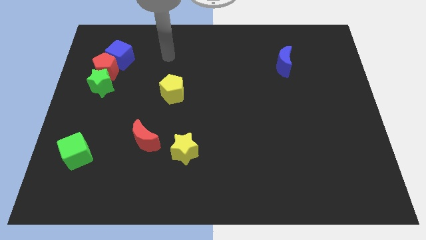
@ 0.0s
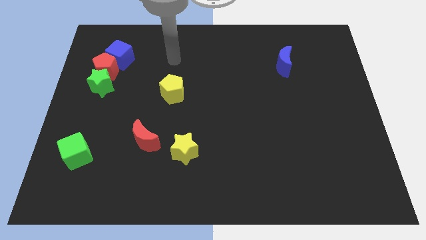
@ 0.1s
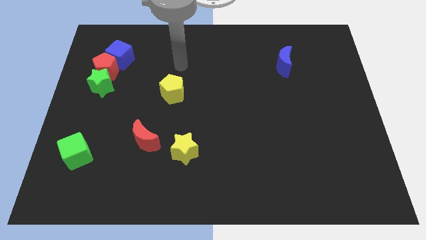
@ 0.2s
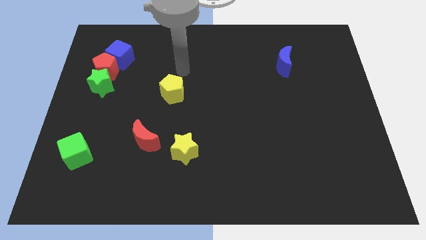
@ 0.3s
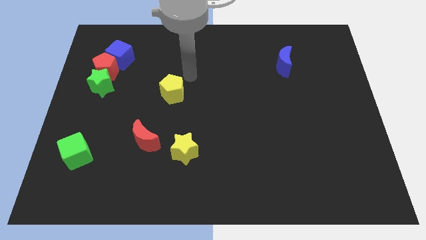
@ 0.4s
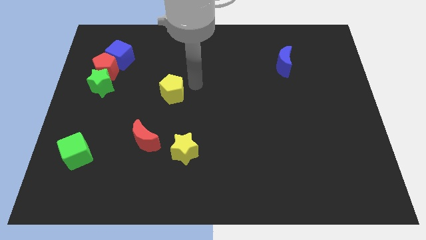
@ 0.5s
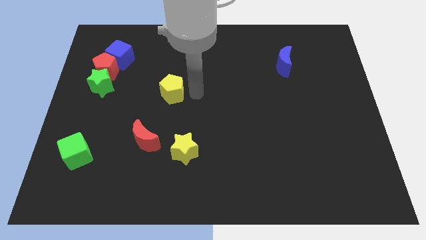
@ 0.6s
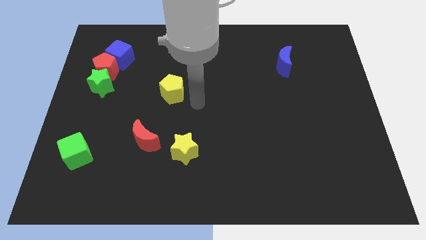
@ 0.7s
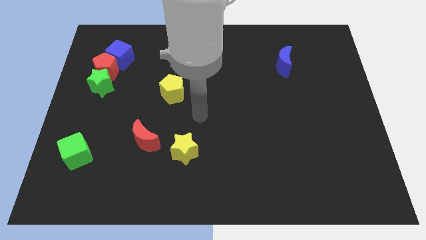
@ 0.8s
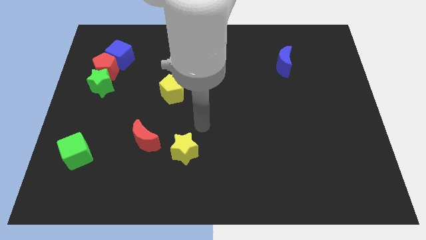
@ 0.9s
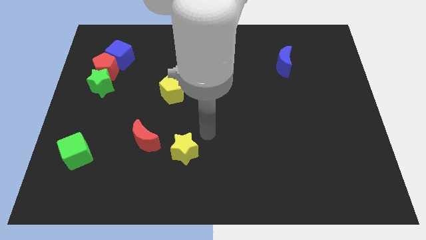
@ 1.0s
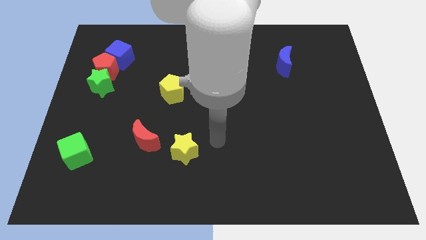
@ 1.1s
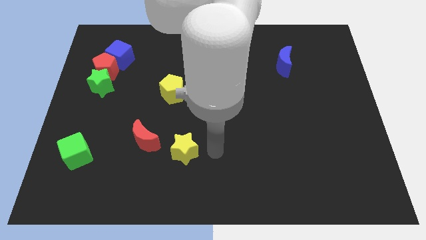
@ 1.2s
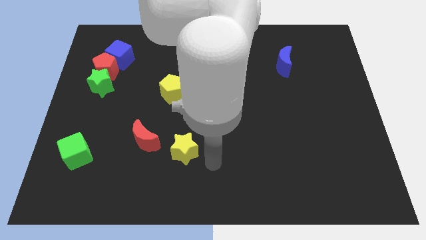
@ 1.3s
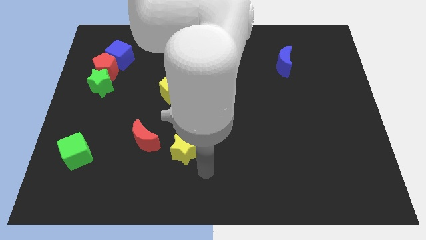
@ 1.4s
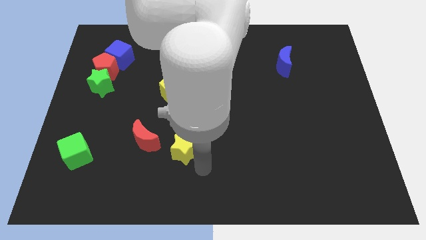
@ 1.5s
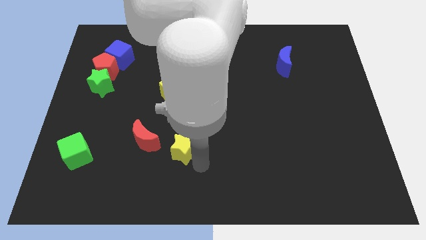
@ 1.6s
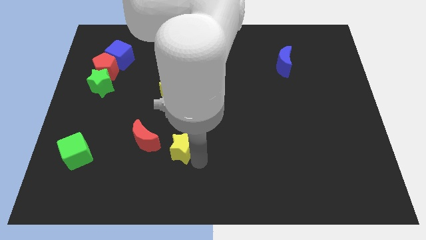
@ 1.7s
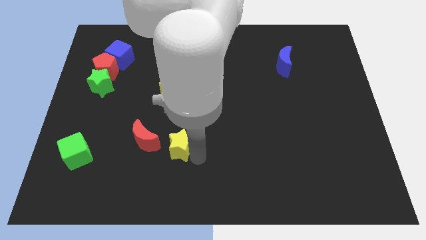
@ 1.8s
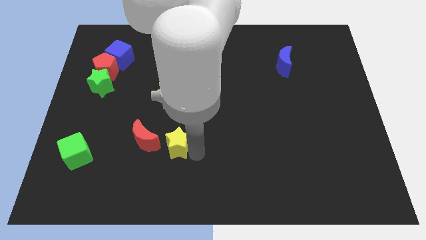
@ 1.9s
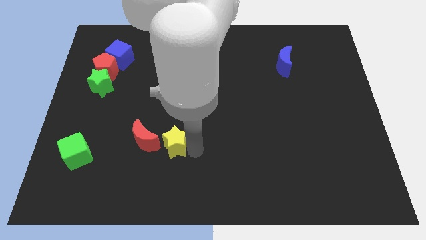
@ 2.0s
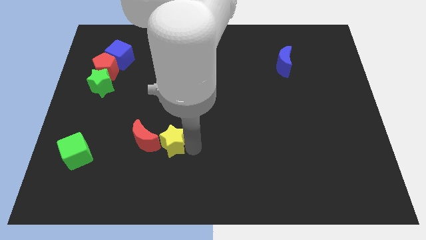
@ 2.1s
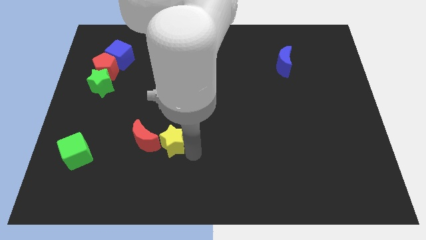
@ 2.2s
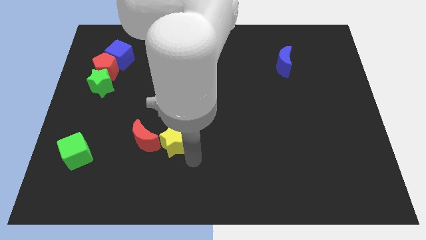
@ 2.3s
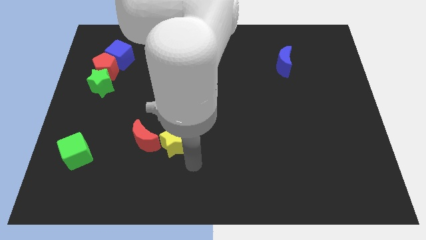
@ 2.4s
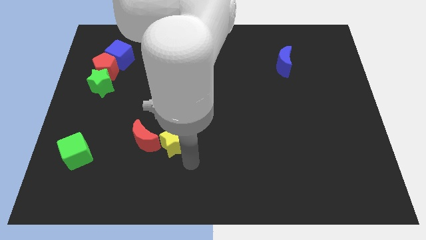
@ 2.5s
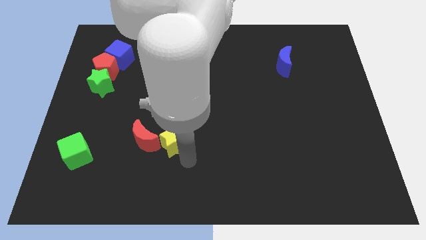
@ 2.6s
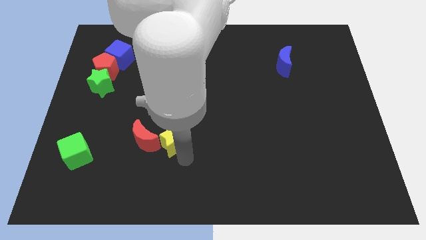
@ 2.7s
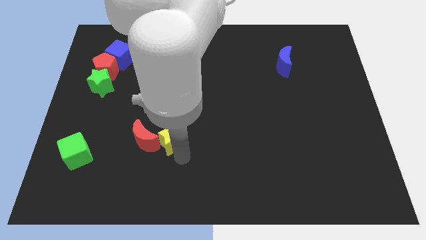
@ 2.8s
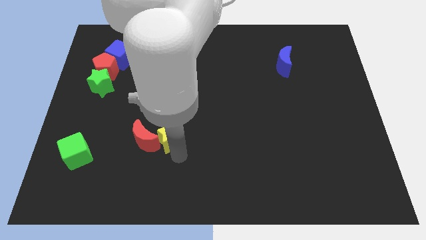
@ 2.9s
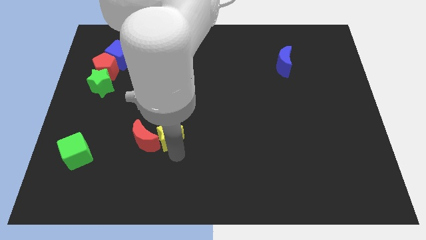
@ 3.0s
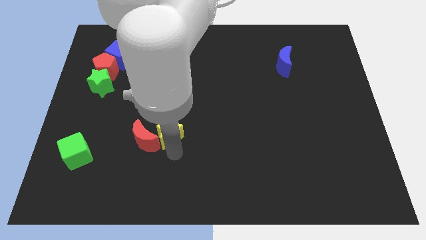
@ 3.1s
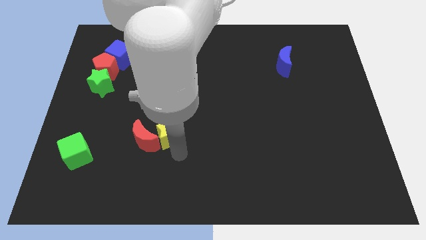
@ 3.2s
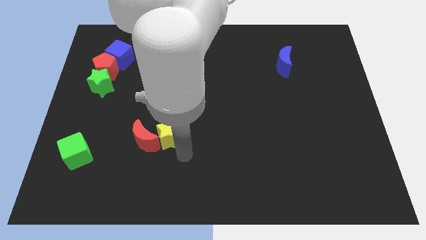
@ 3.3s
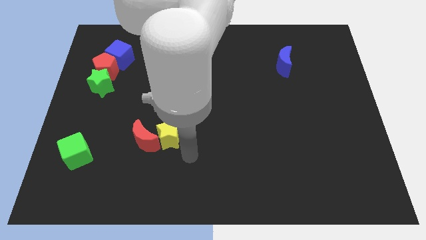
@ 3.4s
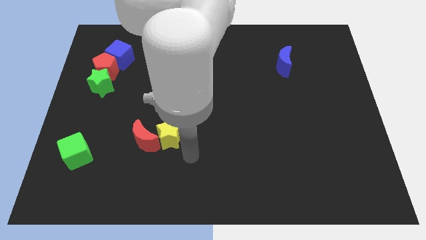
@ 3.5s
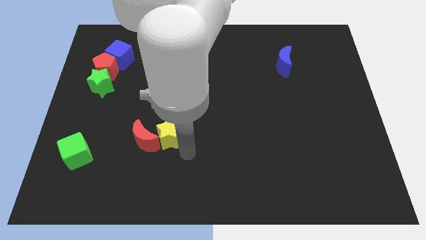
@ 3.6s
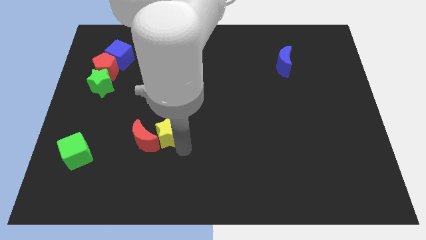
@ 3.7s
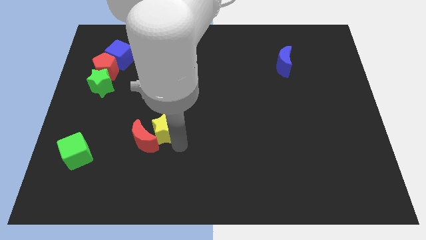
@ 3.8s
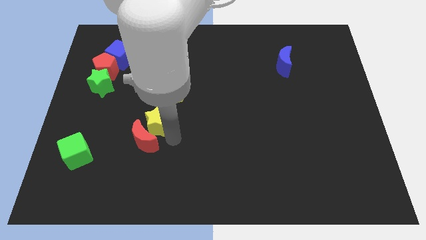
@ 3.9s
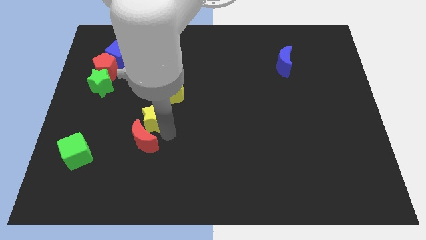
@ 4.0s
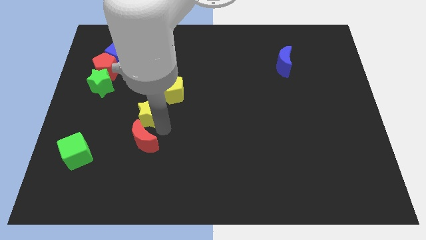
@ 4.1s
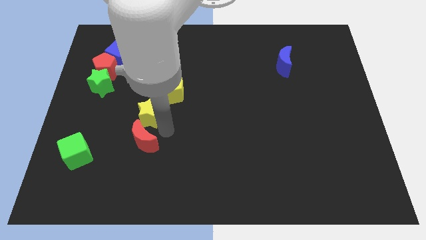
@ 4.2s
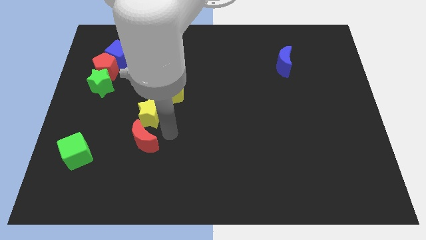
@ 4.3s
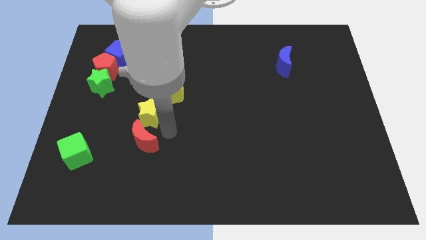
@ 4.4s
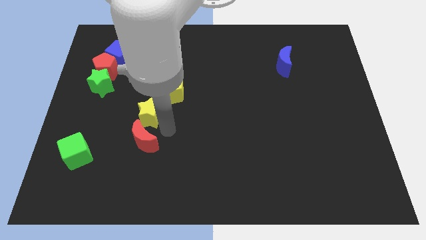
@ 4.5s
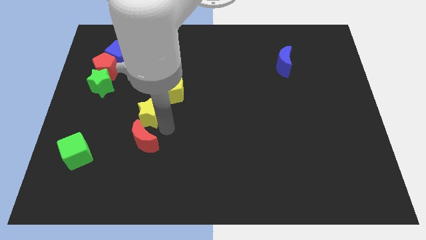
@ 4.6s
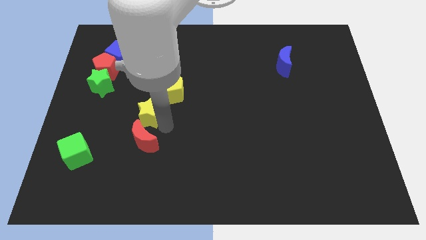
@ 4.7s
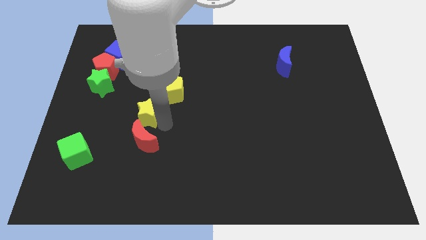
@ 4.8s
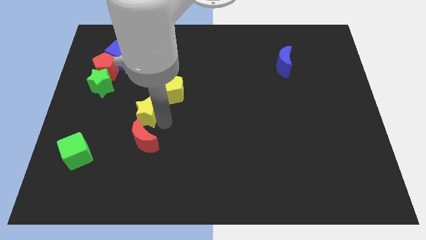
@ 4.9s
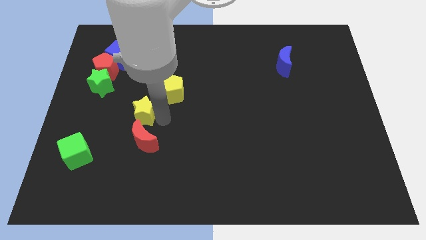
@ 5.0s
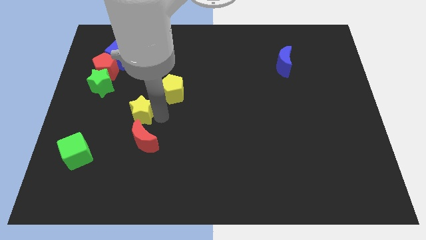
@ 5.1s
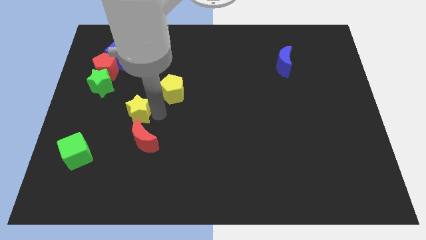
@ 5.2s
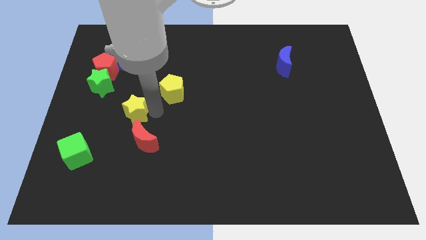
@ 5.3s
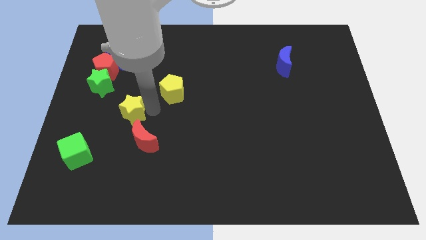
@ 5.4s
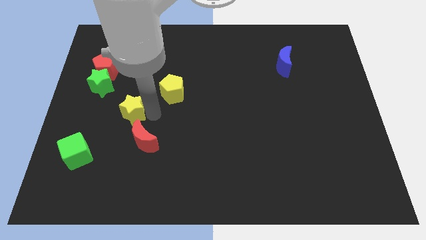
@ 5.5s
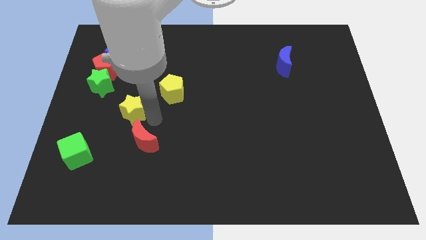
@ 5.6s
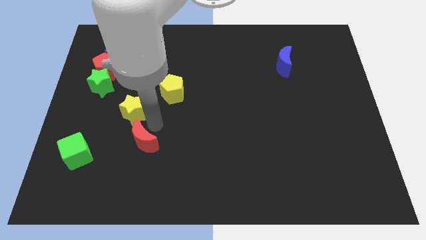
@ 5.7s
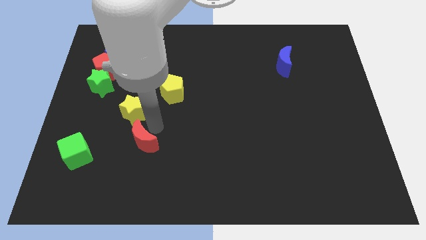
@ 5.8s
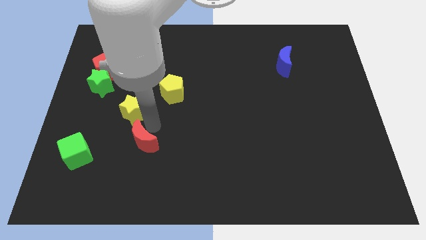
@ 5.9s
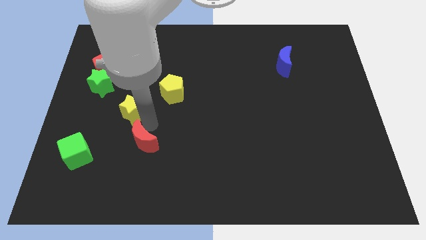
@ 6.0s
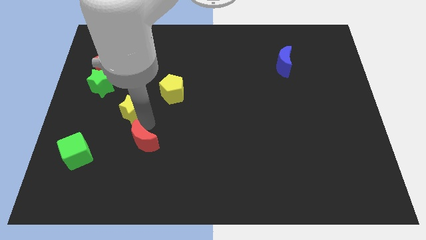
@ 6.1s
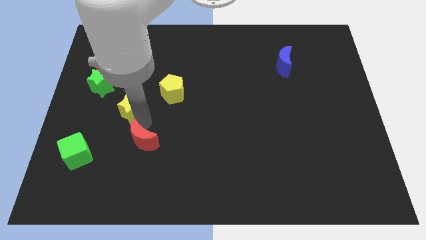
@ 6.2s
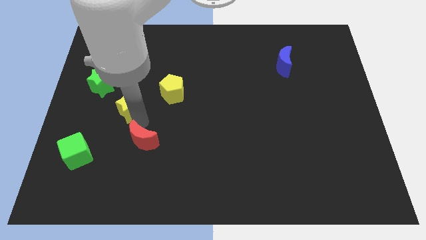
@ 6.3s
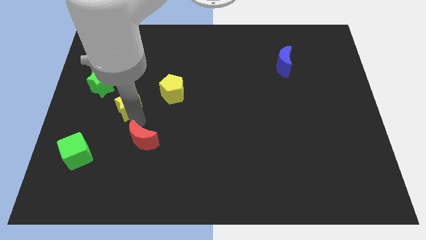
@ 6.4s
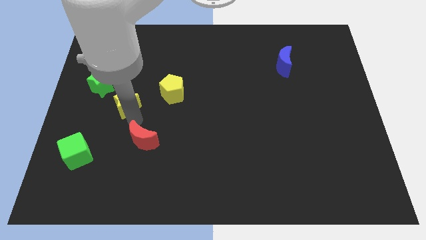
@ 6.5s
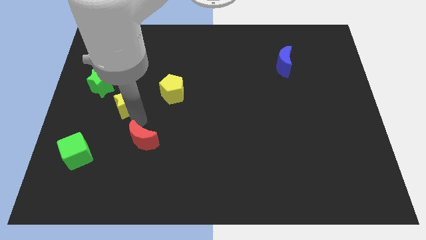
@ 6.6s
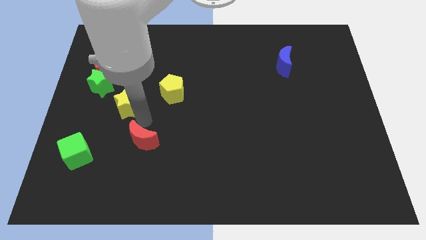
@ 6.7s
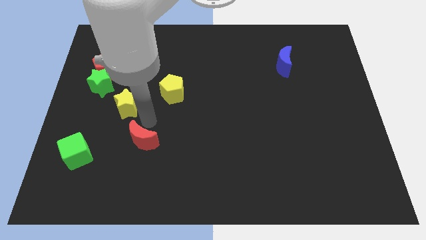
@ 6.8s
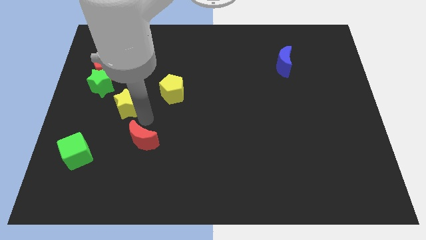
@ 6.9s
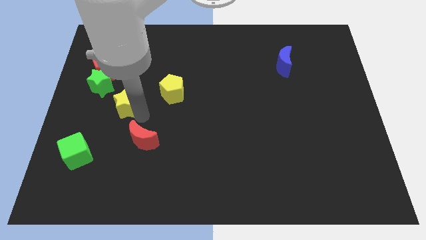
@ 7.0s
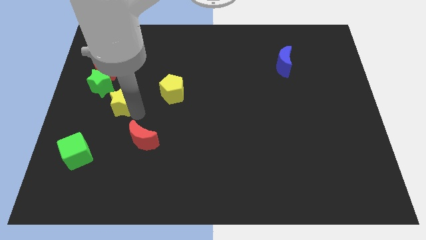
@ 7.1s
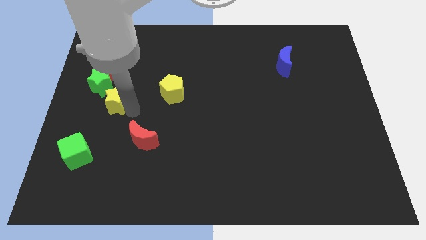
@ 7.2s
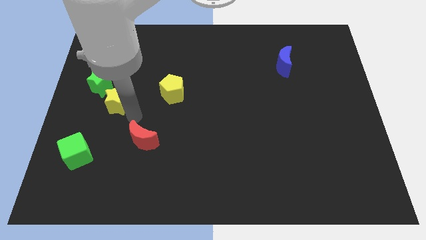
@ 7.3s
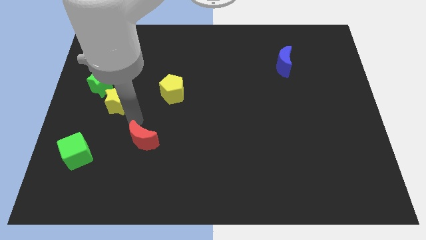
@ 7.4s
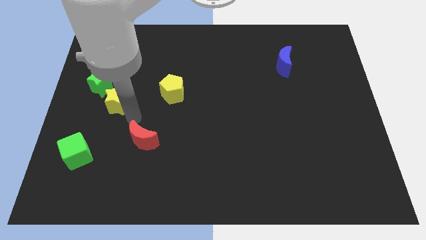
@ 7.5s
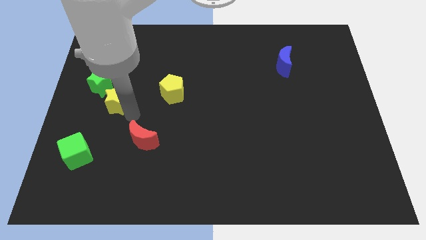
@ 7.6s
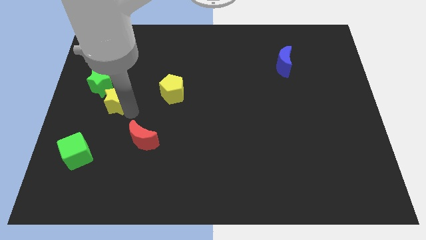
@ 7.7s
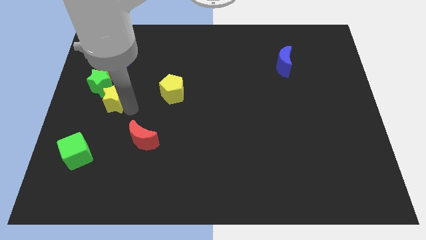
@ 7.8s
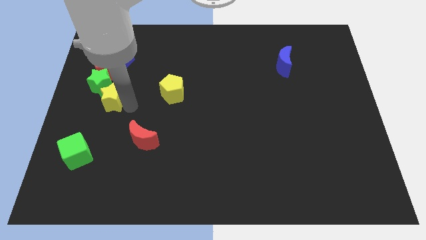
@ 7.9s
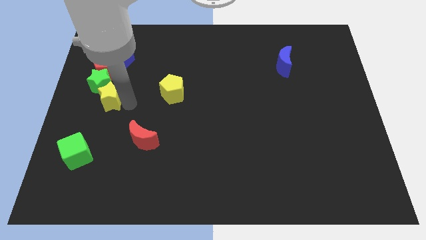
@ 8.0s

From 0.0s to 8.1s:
push the yellow star to the green star
